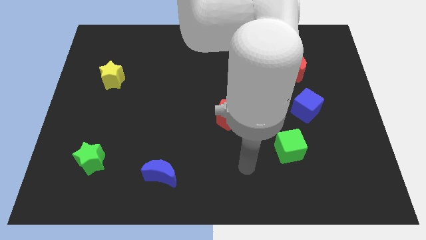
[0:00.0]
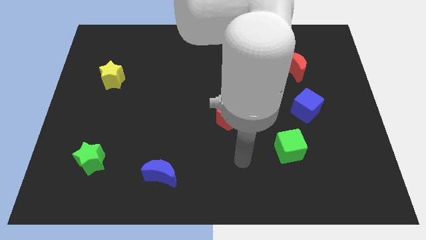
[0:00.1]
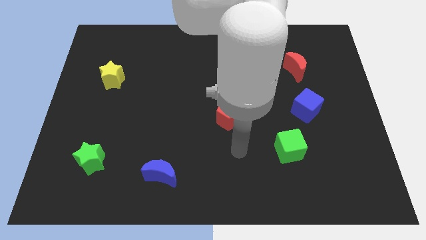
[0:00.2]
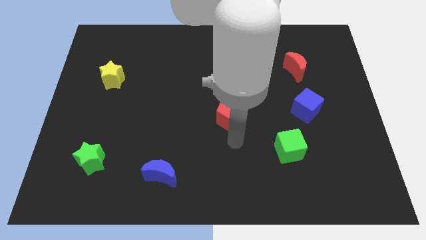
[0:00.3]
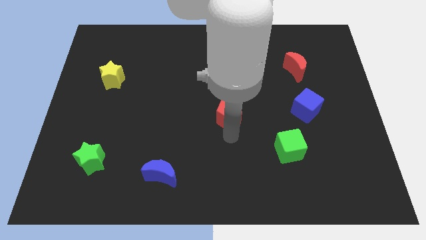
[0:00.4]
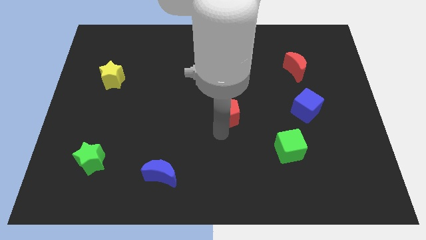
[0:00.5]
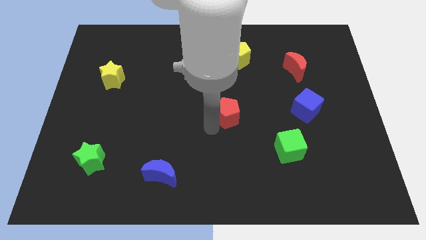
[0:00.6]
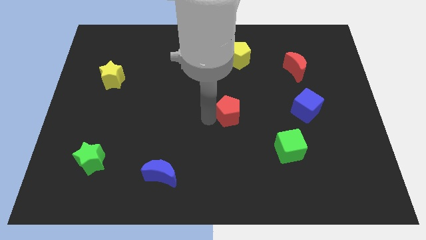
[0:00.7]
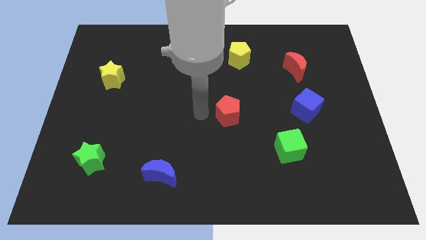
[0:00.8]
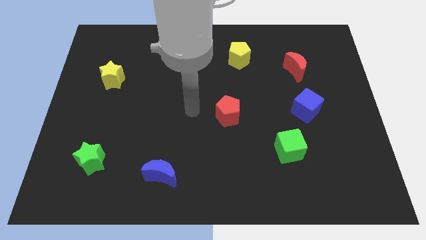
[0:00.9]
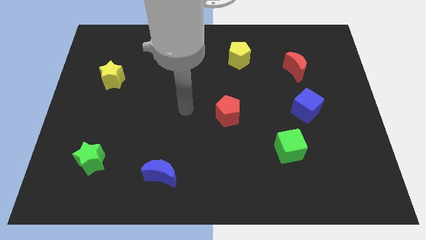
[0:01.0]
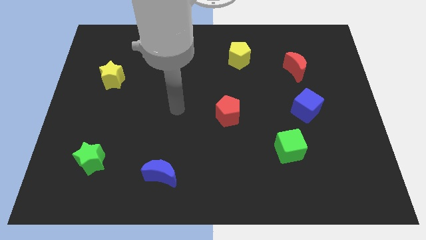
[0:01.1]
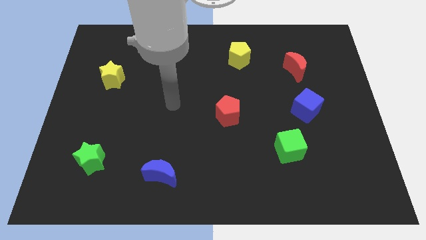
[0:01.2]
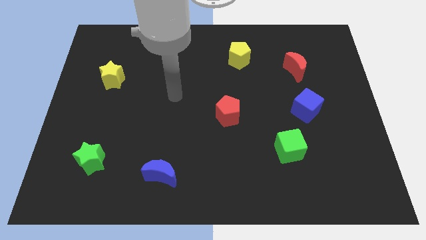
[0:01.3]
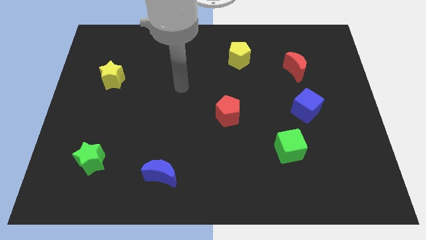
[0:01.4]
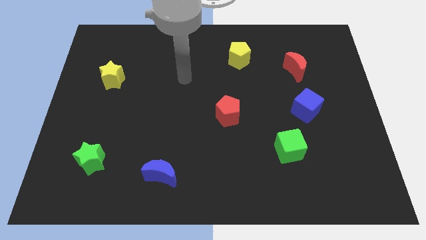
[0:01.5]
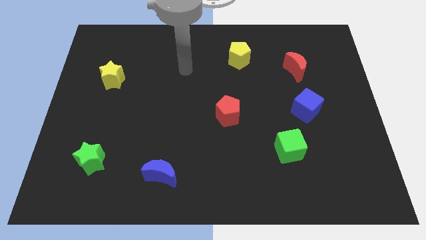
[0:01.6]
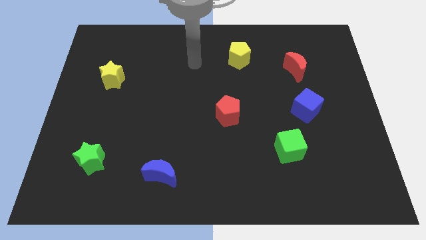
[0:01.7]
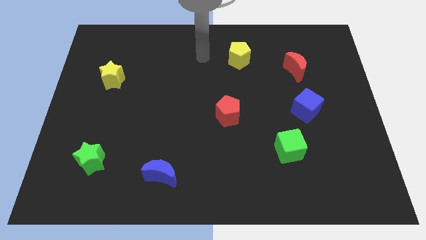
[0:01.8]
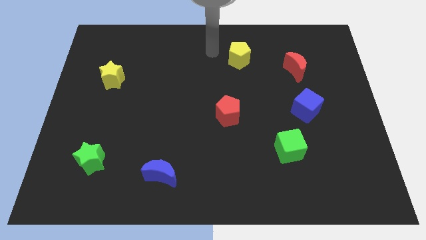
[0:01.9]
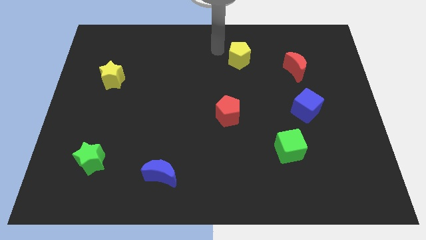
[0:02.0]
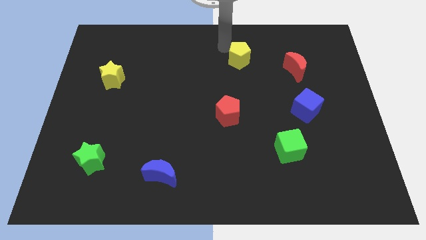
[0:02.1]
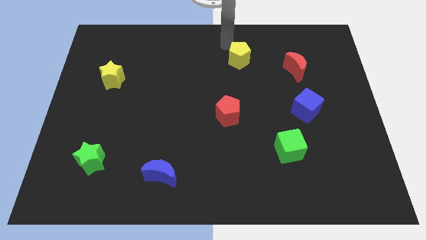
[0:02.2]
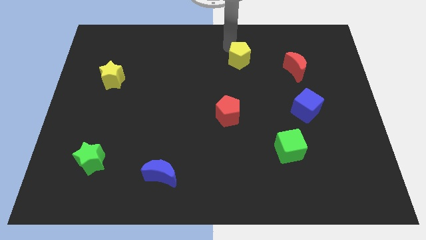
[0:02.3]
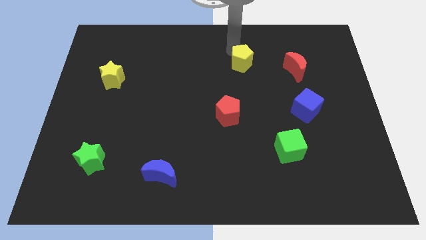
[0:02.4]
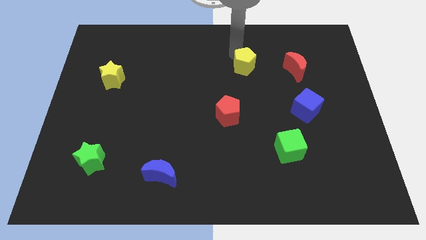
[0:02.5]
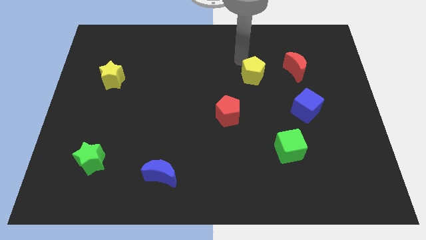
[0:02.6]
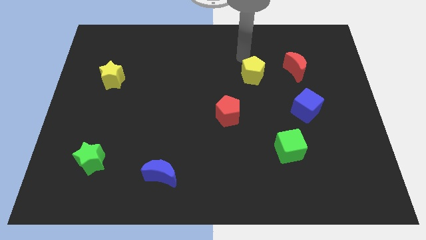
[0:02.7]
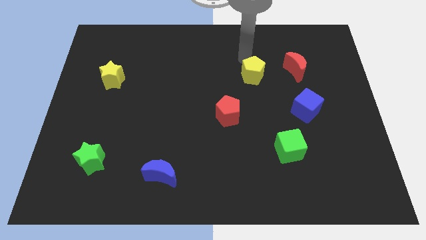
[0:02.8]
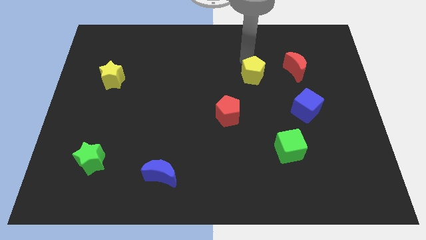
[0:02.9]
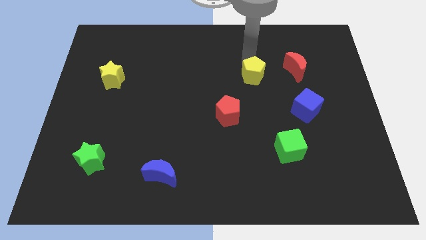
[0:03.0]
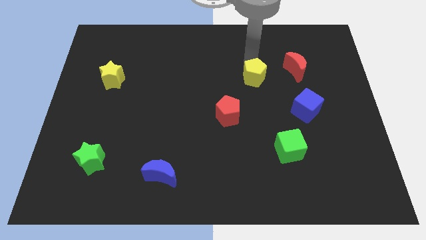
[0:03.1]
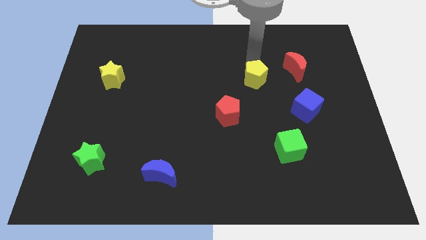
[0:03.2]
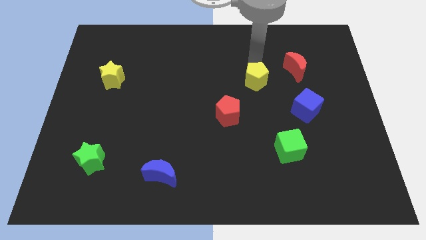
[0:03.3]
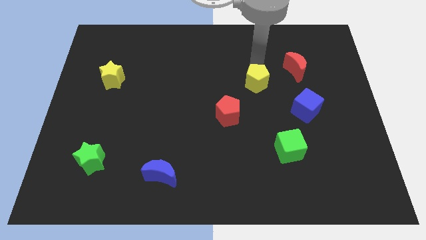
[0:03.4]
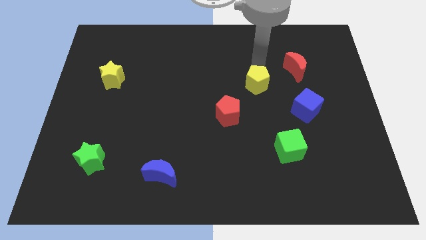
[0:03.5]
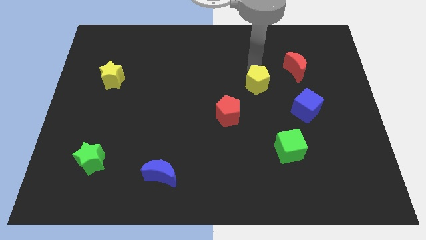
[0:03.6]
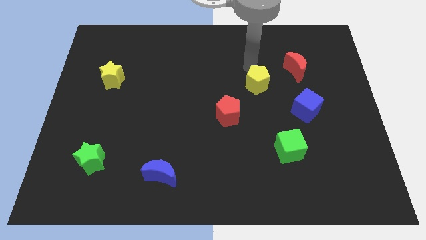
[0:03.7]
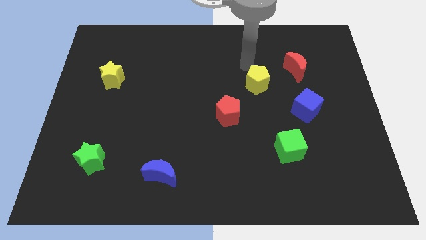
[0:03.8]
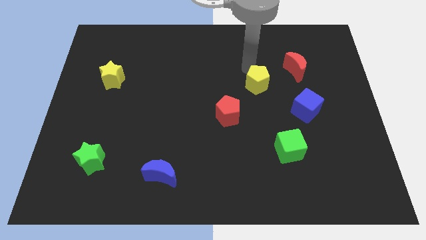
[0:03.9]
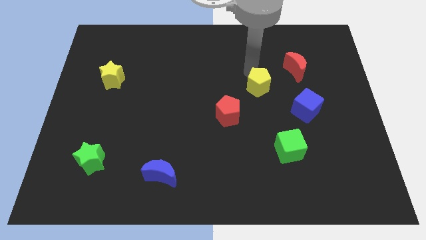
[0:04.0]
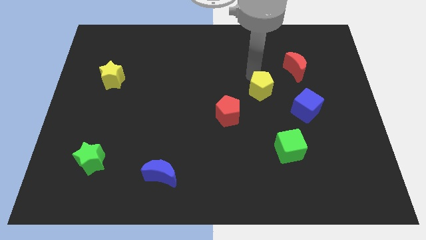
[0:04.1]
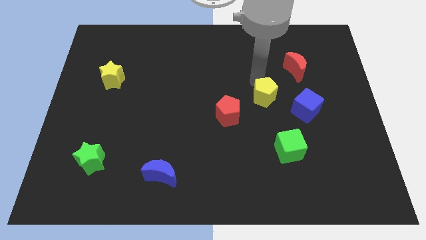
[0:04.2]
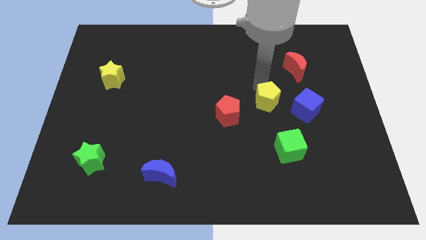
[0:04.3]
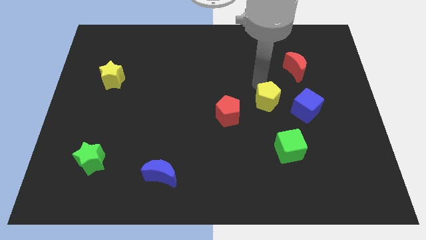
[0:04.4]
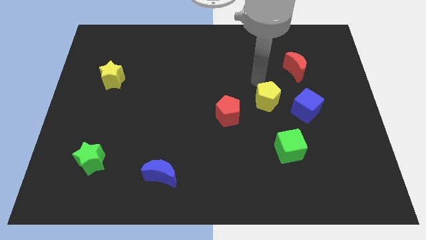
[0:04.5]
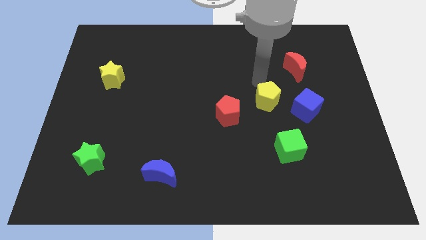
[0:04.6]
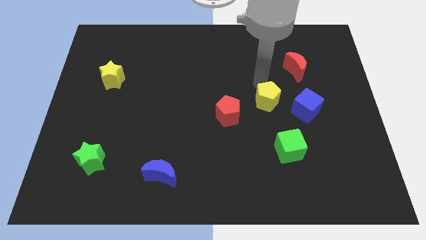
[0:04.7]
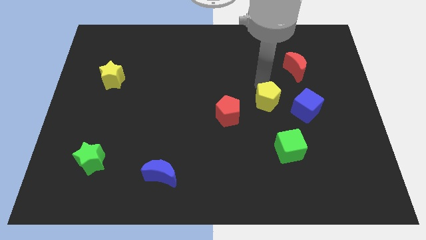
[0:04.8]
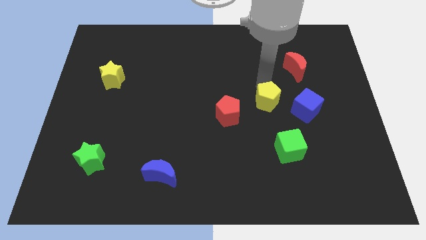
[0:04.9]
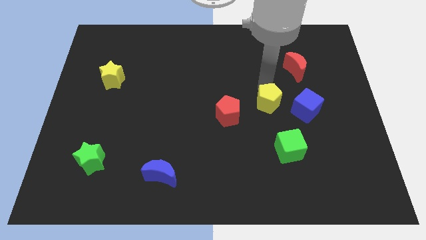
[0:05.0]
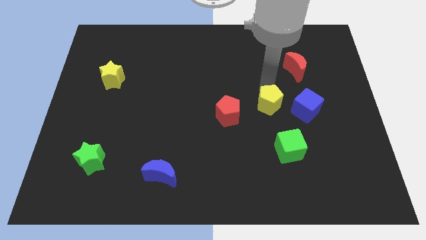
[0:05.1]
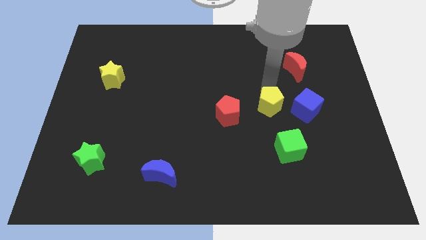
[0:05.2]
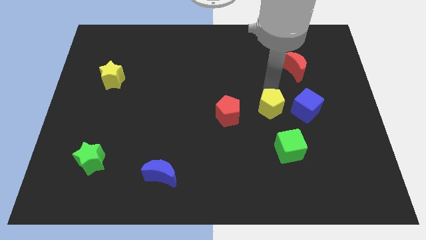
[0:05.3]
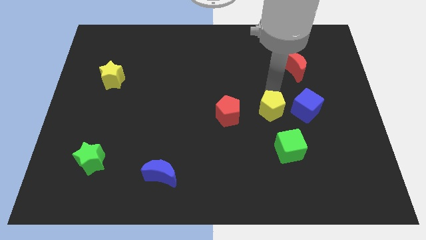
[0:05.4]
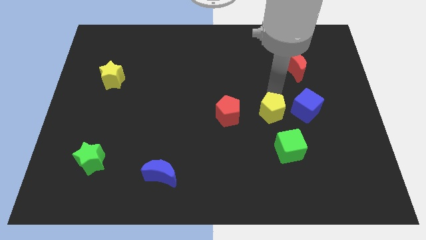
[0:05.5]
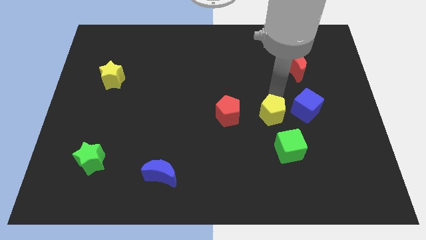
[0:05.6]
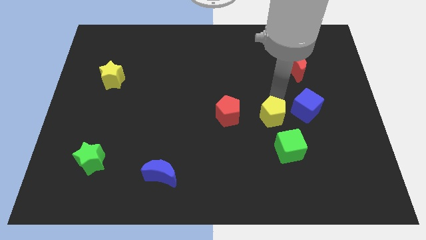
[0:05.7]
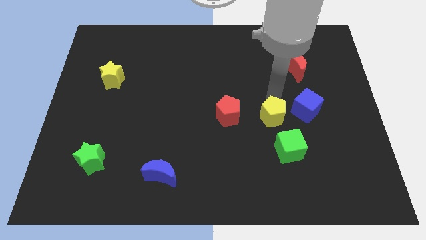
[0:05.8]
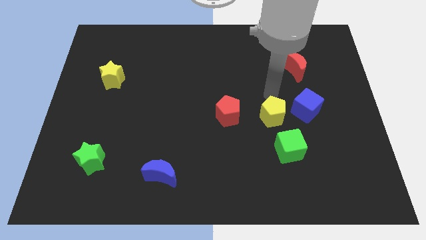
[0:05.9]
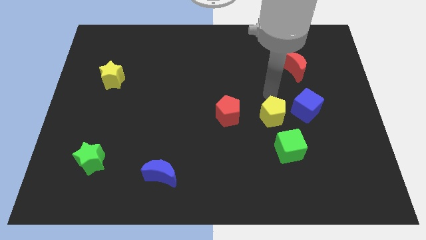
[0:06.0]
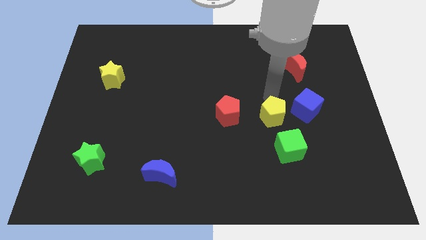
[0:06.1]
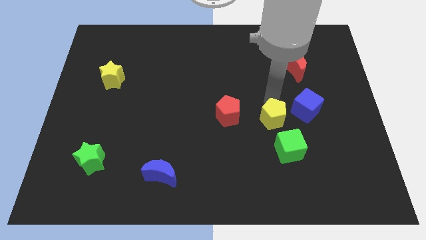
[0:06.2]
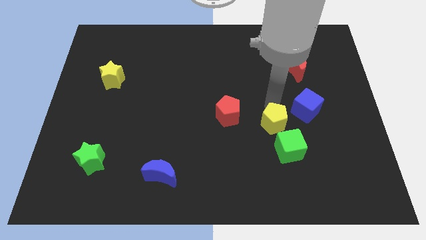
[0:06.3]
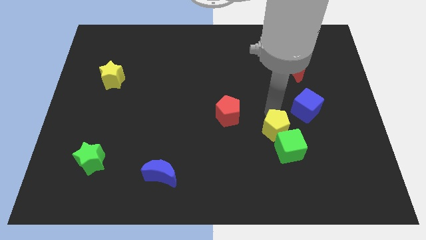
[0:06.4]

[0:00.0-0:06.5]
push the yellow pentagon next to the green cube
